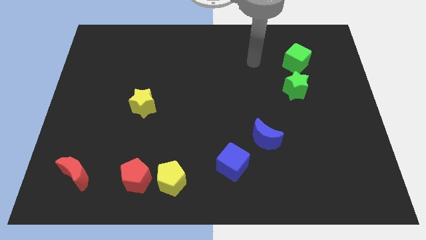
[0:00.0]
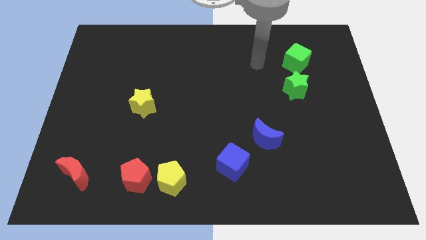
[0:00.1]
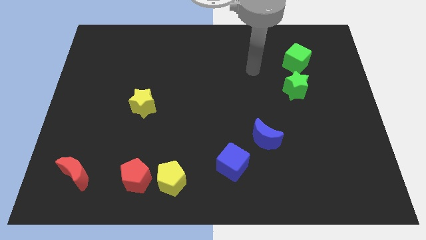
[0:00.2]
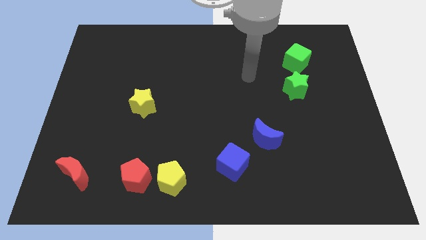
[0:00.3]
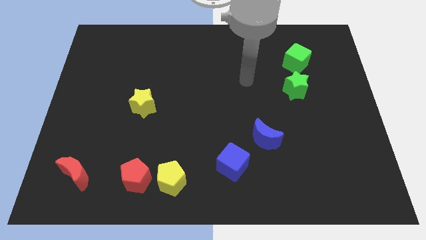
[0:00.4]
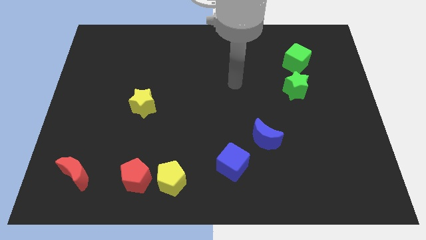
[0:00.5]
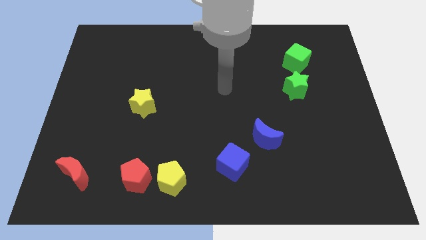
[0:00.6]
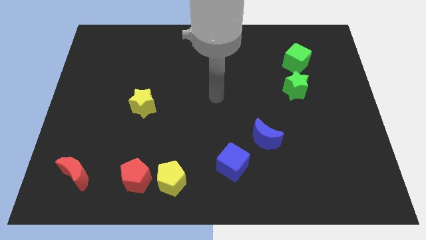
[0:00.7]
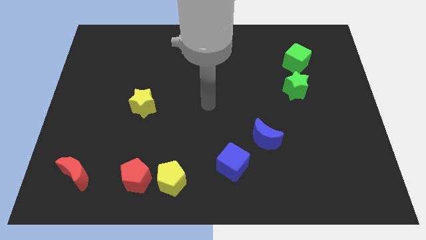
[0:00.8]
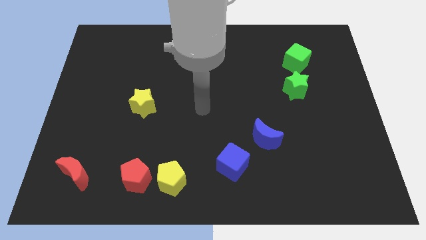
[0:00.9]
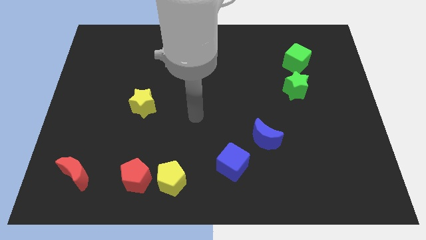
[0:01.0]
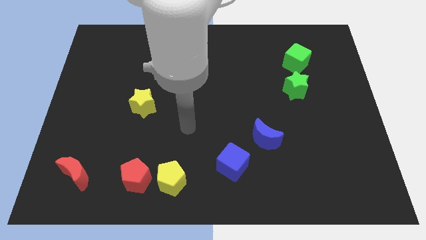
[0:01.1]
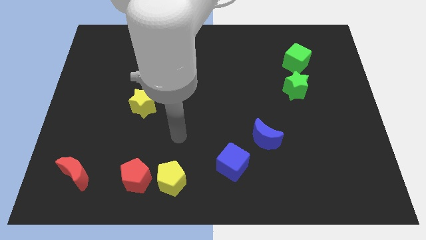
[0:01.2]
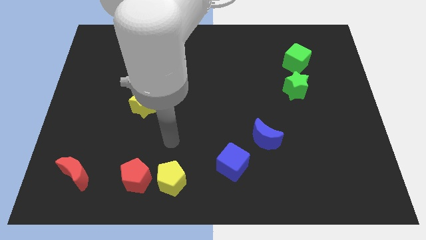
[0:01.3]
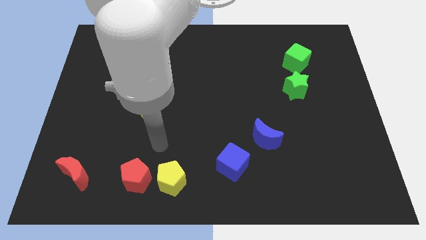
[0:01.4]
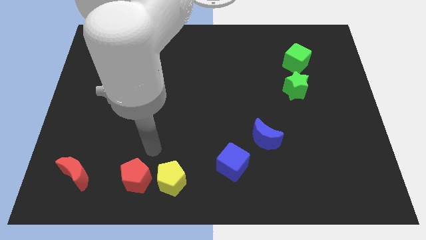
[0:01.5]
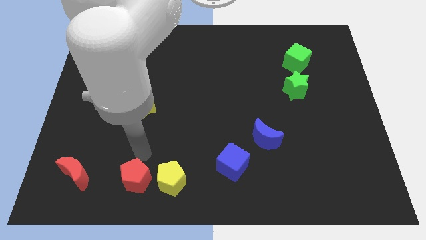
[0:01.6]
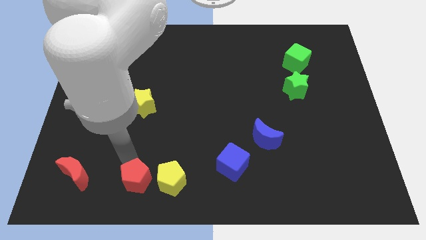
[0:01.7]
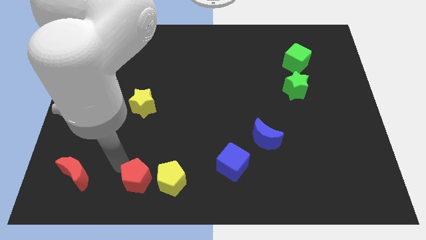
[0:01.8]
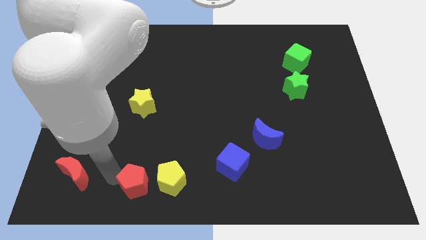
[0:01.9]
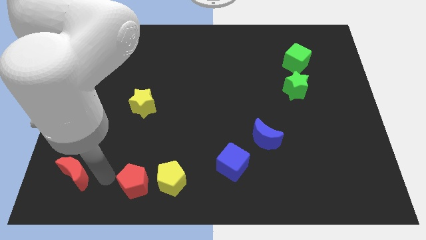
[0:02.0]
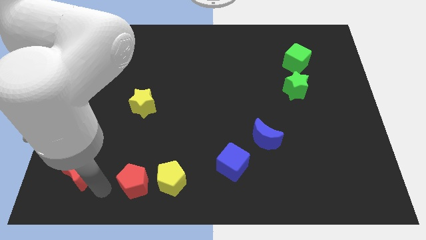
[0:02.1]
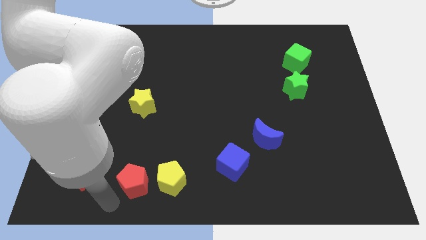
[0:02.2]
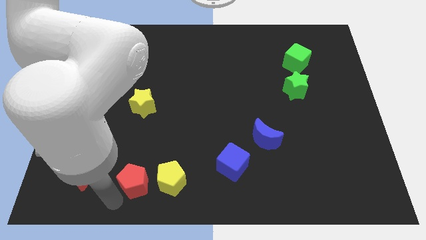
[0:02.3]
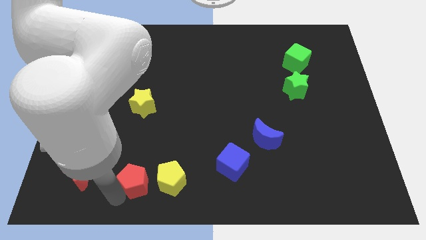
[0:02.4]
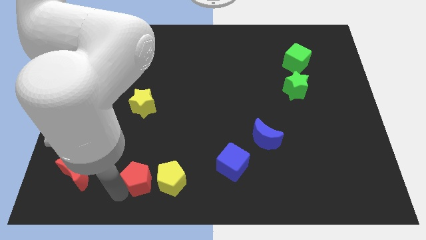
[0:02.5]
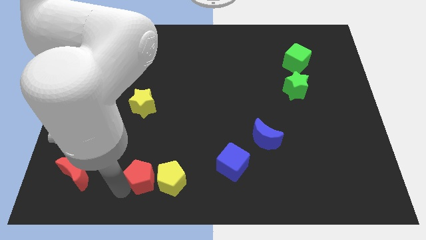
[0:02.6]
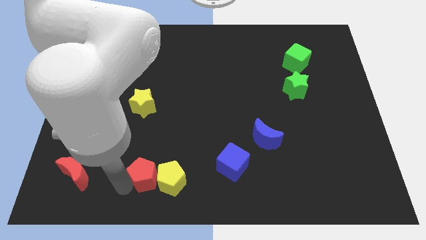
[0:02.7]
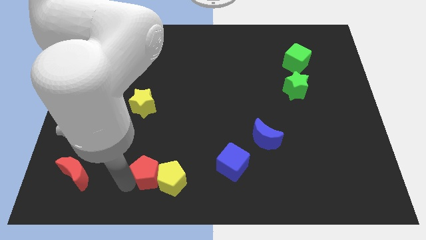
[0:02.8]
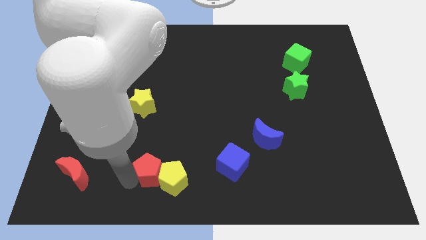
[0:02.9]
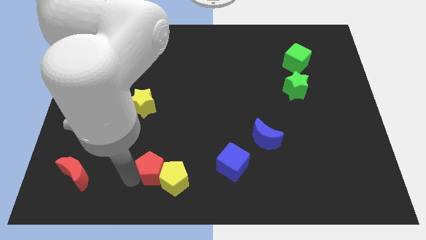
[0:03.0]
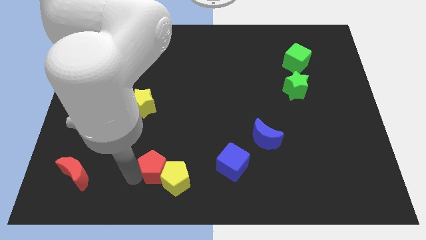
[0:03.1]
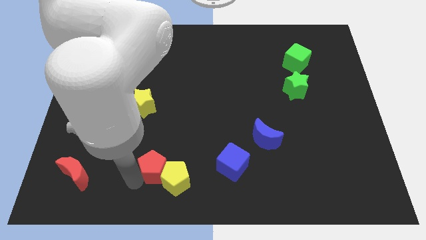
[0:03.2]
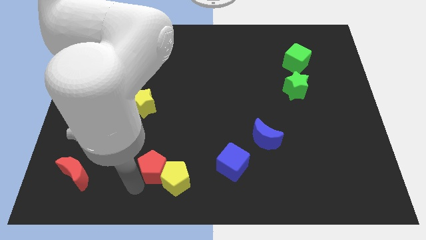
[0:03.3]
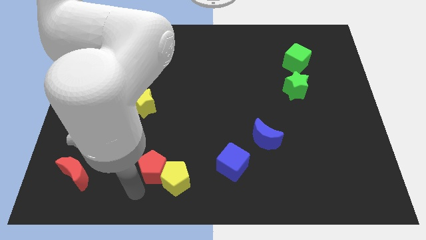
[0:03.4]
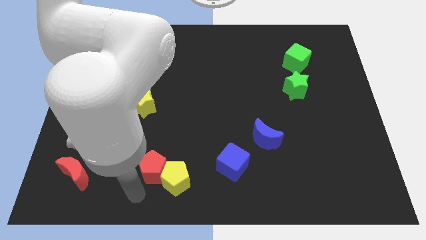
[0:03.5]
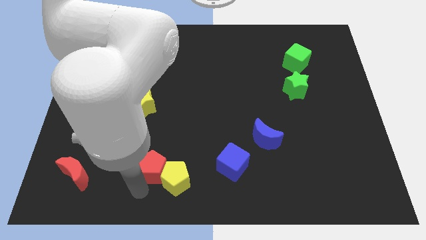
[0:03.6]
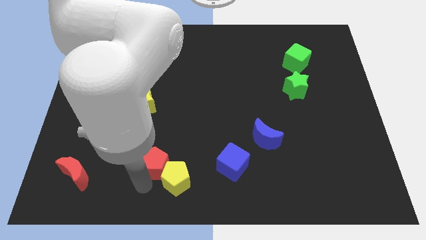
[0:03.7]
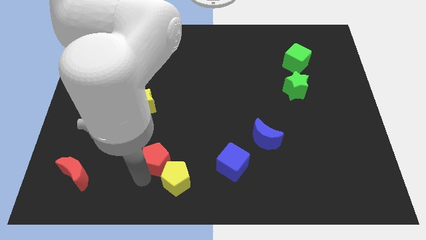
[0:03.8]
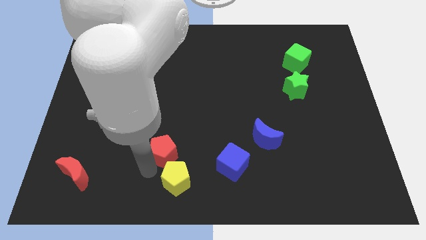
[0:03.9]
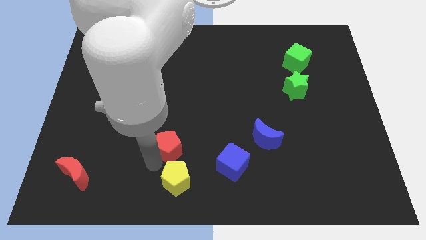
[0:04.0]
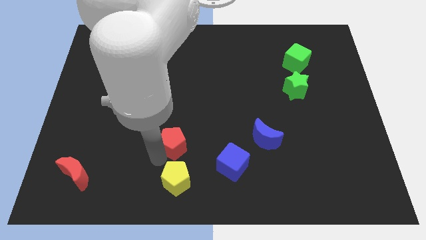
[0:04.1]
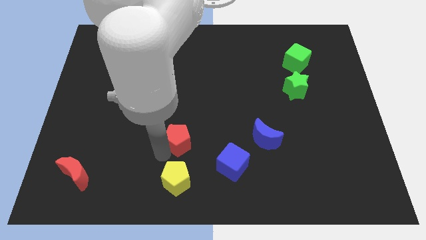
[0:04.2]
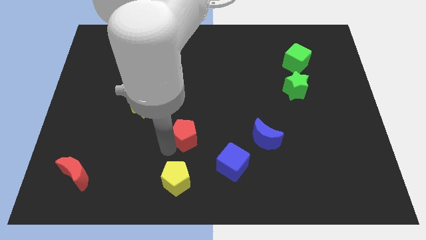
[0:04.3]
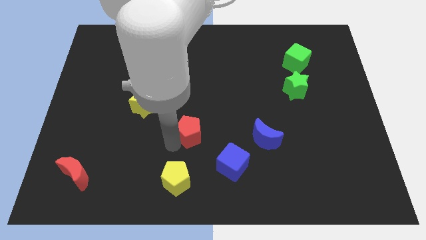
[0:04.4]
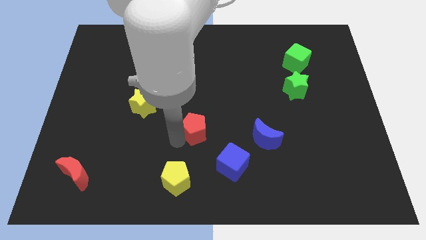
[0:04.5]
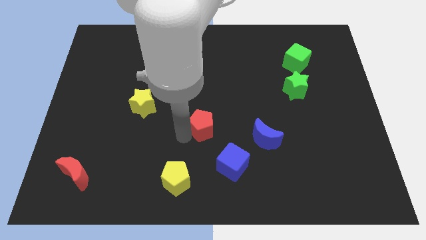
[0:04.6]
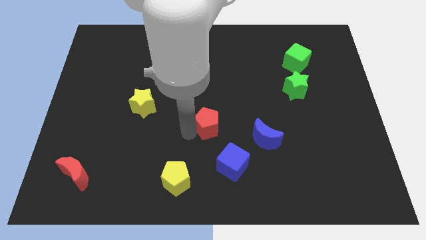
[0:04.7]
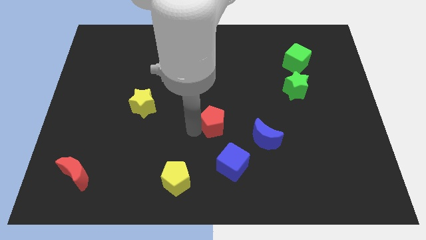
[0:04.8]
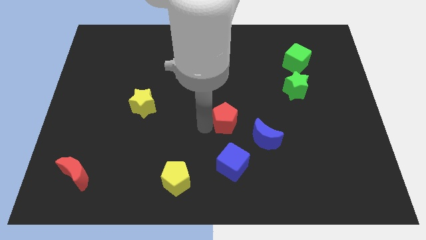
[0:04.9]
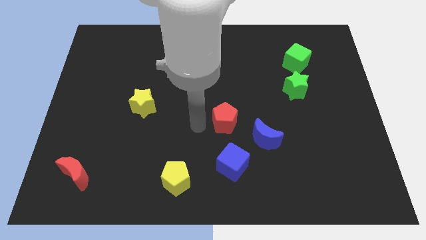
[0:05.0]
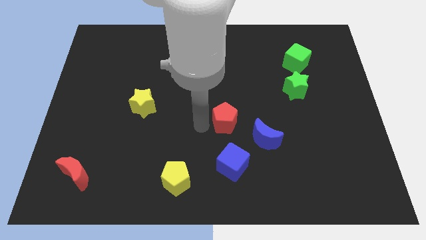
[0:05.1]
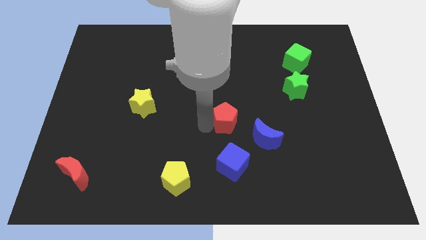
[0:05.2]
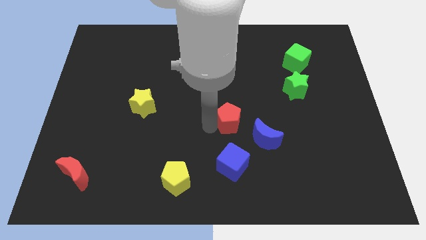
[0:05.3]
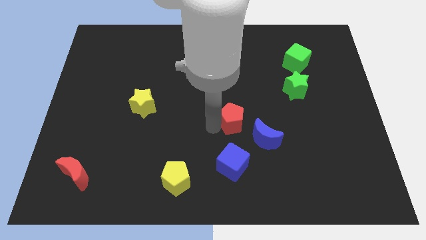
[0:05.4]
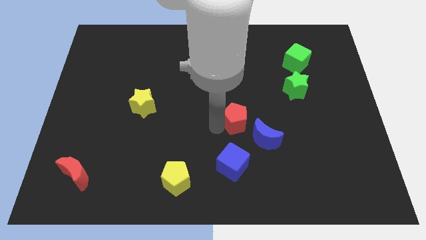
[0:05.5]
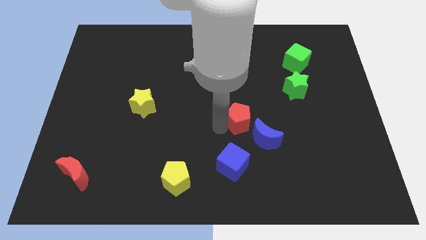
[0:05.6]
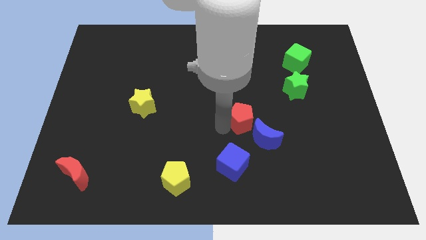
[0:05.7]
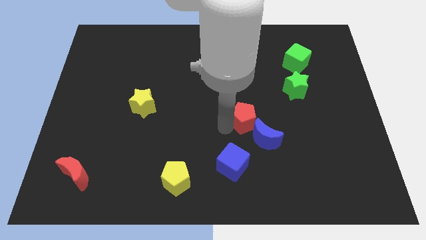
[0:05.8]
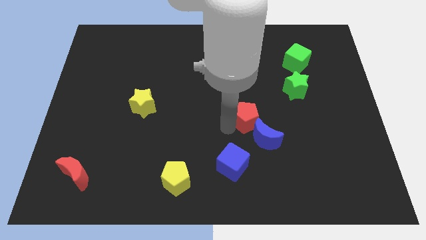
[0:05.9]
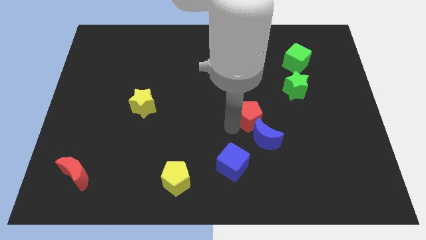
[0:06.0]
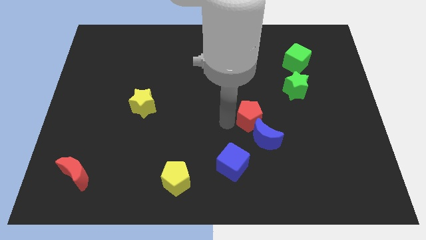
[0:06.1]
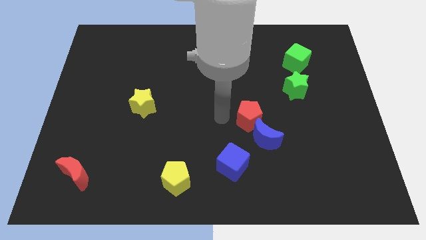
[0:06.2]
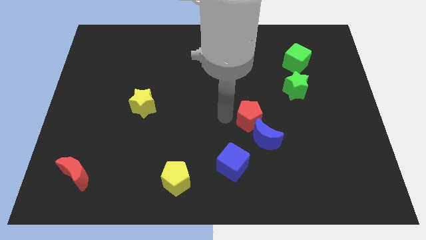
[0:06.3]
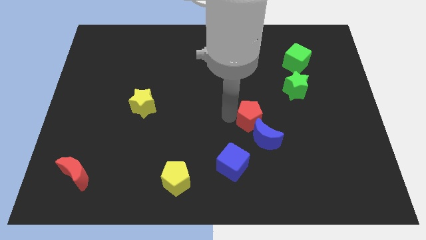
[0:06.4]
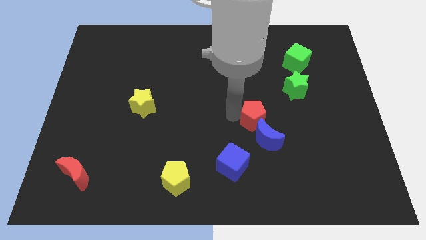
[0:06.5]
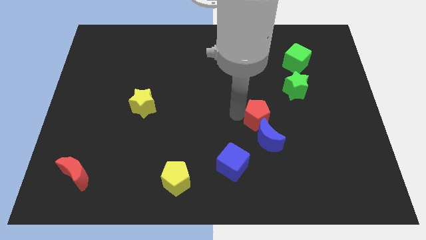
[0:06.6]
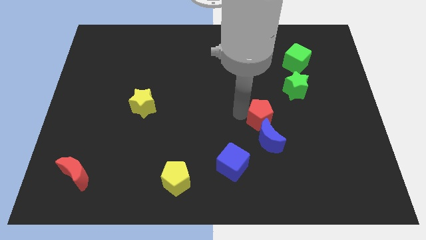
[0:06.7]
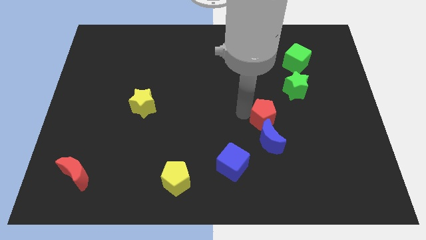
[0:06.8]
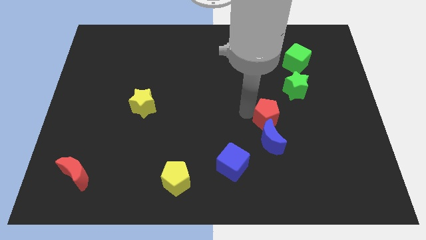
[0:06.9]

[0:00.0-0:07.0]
put the red pentagon to the top right of the blue moon

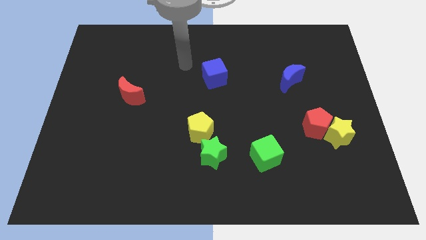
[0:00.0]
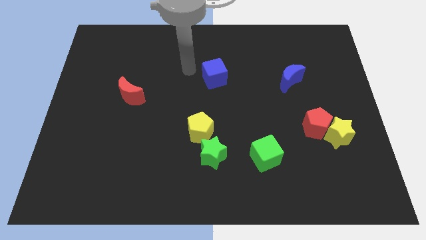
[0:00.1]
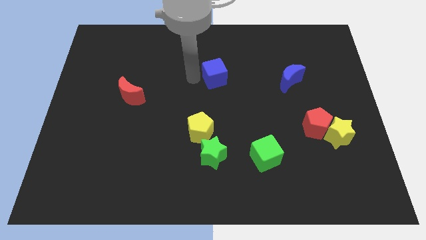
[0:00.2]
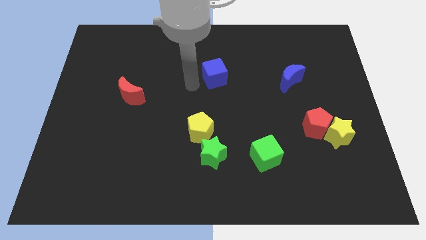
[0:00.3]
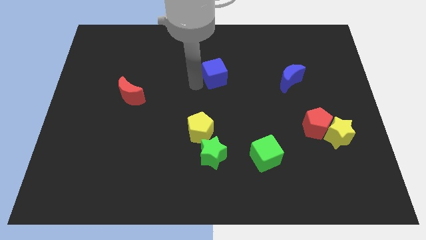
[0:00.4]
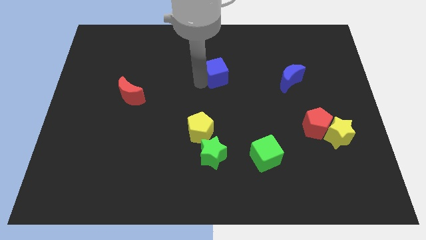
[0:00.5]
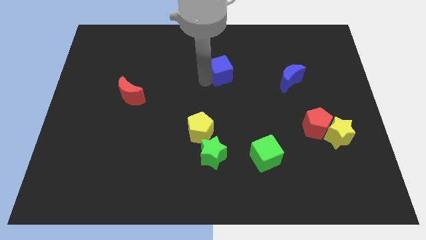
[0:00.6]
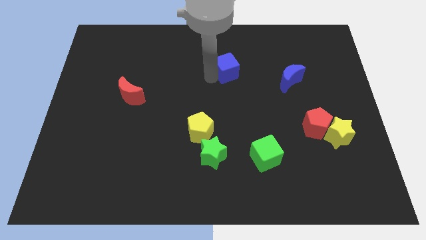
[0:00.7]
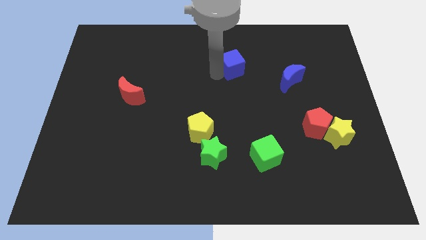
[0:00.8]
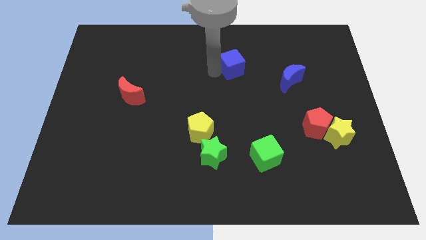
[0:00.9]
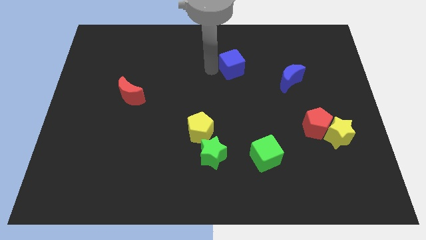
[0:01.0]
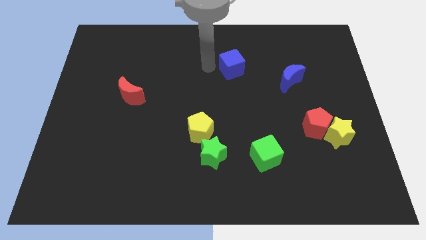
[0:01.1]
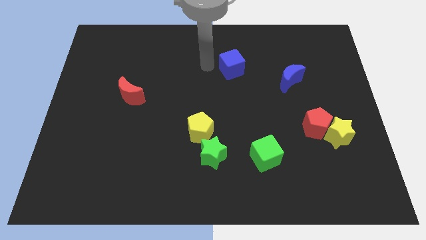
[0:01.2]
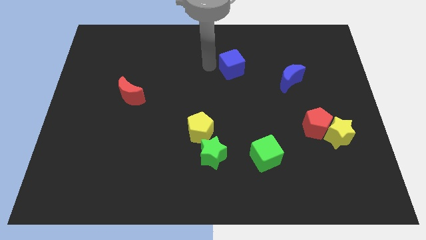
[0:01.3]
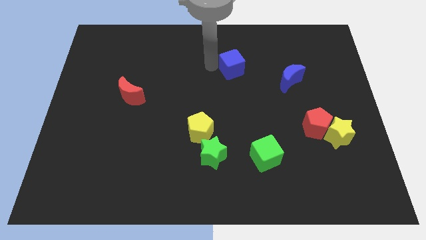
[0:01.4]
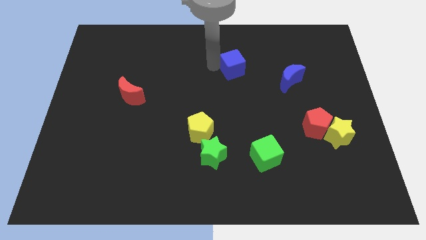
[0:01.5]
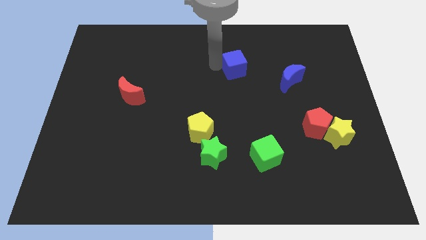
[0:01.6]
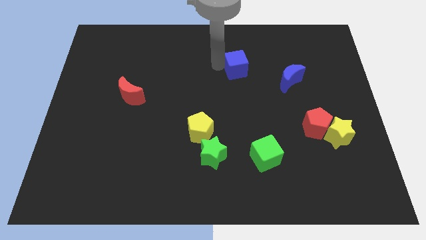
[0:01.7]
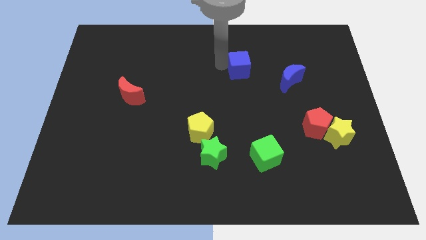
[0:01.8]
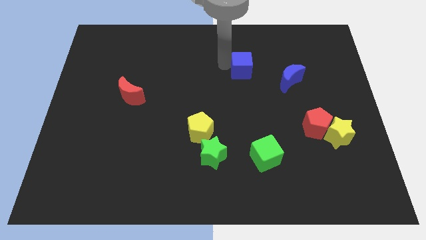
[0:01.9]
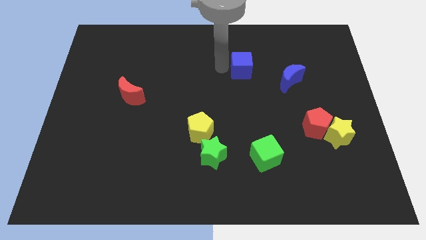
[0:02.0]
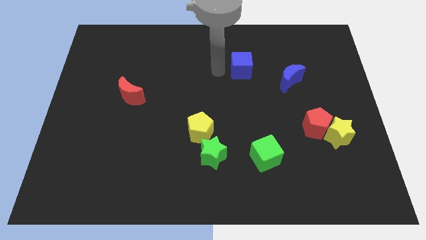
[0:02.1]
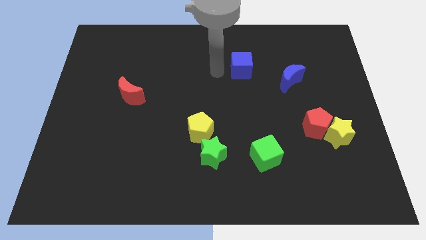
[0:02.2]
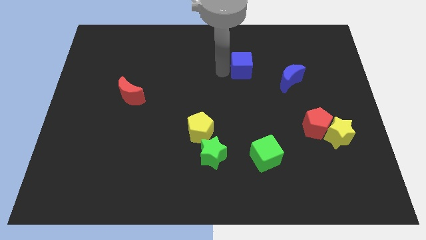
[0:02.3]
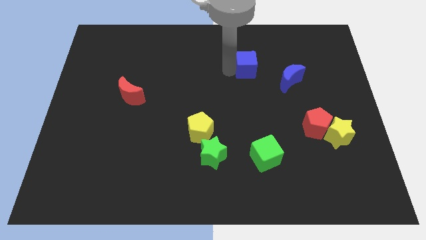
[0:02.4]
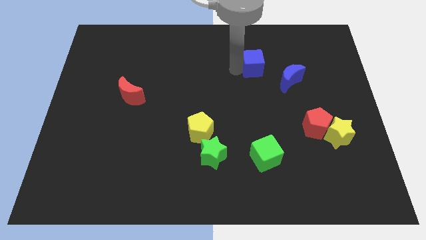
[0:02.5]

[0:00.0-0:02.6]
slide the blue cube to the top left side of the blue moon
